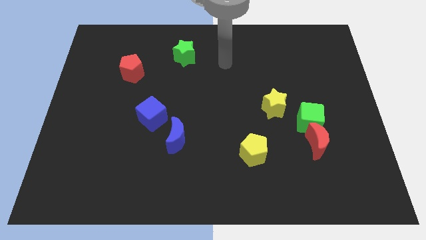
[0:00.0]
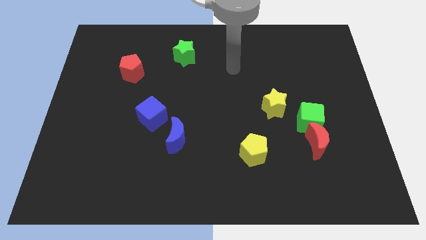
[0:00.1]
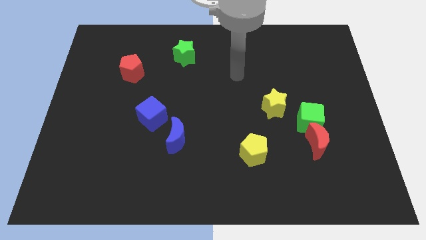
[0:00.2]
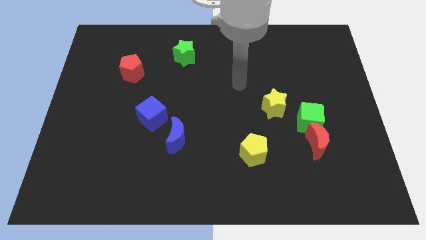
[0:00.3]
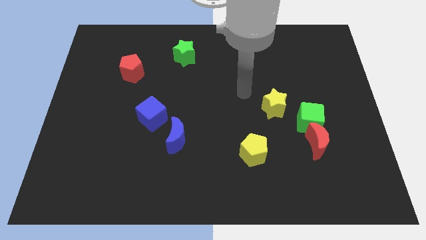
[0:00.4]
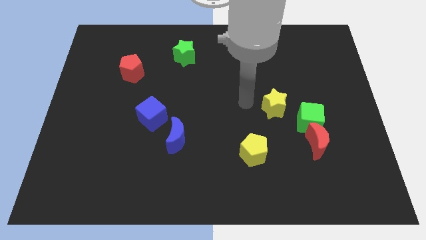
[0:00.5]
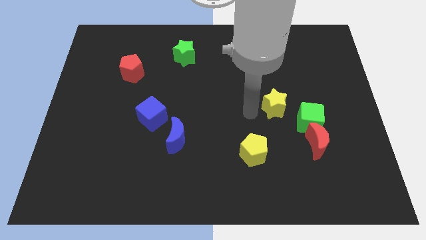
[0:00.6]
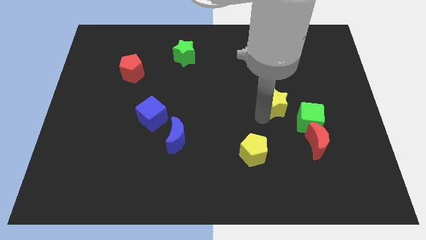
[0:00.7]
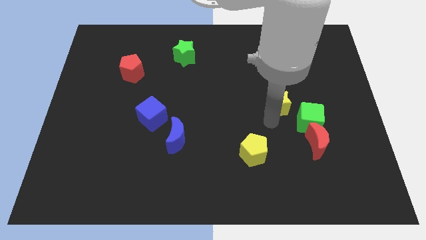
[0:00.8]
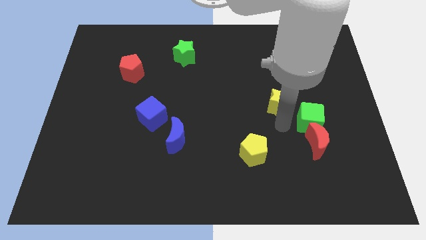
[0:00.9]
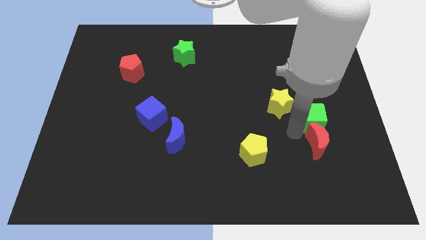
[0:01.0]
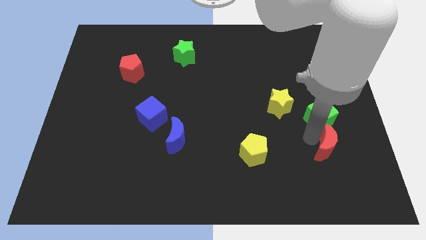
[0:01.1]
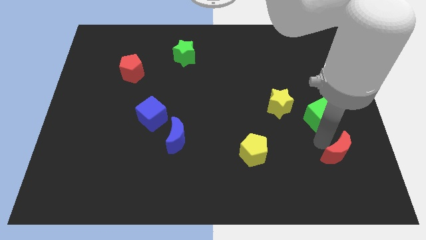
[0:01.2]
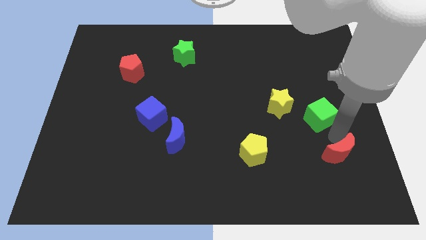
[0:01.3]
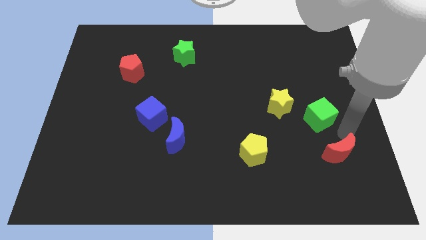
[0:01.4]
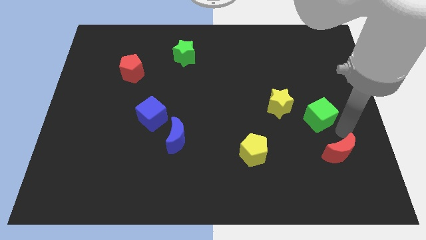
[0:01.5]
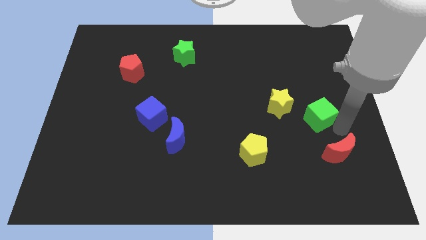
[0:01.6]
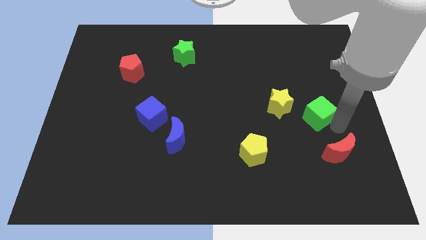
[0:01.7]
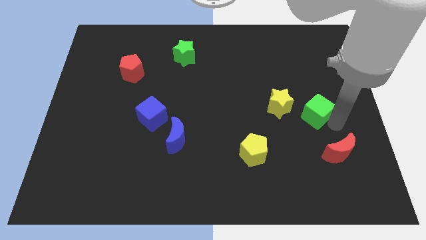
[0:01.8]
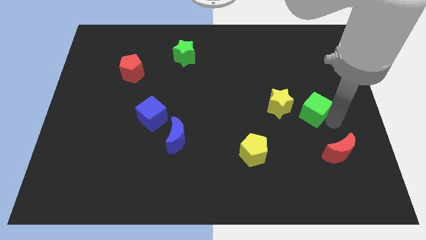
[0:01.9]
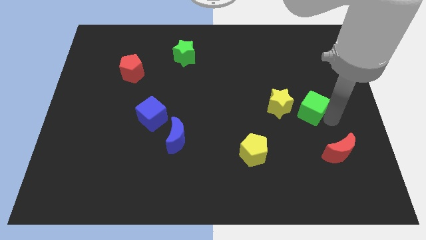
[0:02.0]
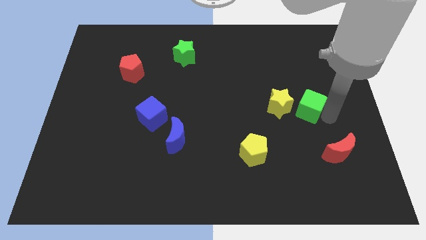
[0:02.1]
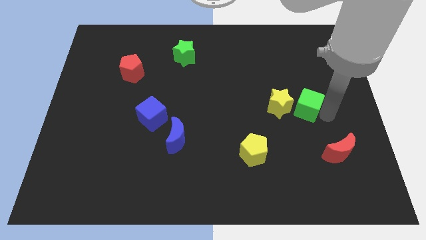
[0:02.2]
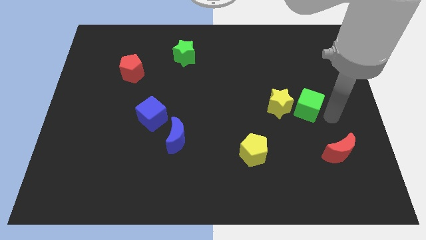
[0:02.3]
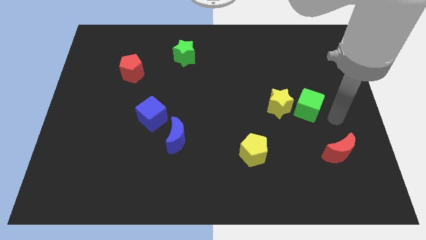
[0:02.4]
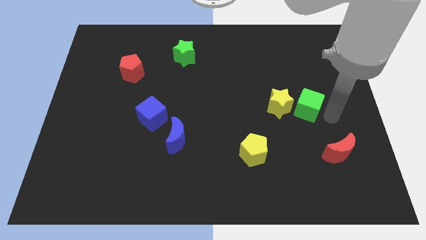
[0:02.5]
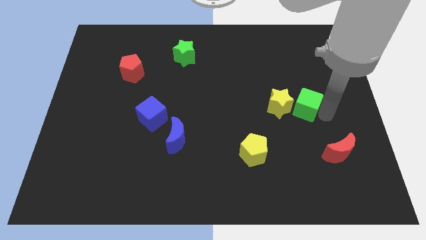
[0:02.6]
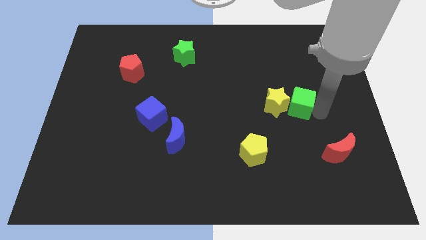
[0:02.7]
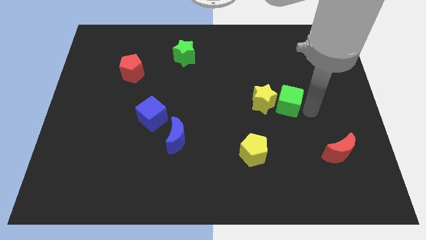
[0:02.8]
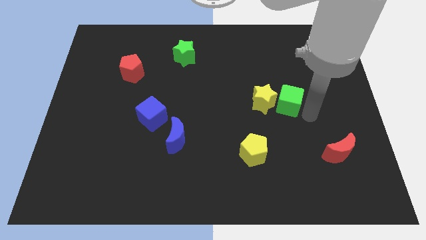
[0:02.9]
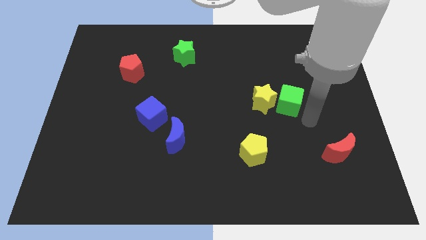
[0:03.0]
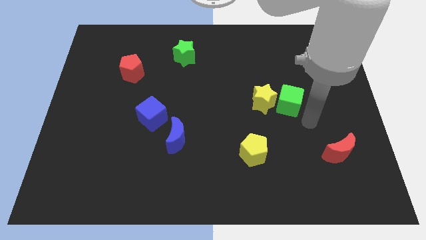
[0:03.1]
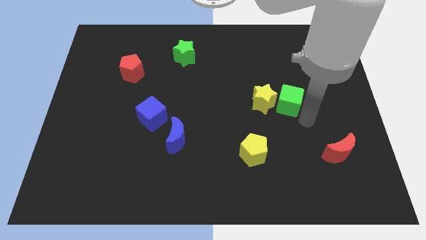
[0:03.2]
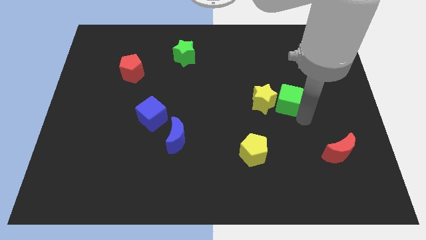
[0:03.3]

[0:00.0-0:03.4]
slightly slide the green cube upwards and to the left

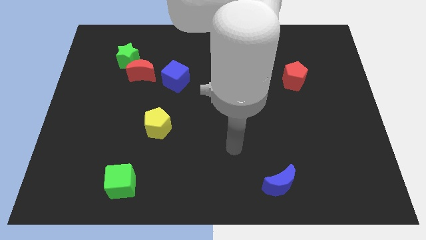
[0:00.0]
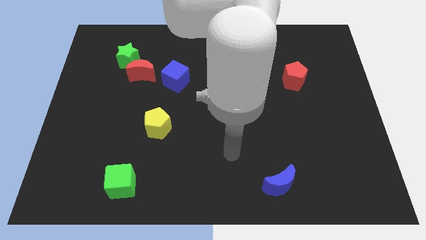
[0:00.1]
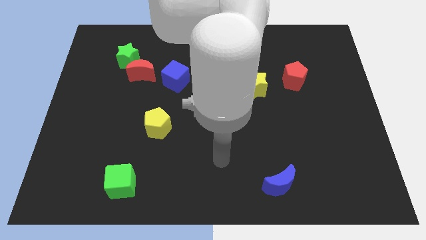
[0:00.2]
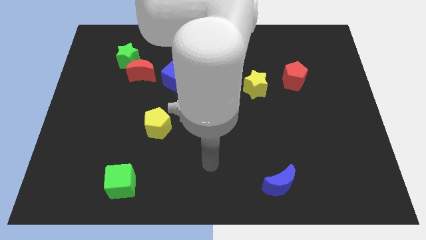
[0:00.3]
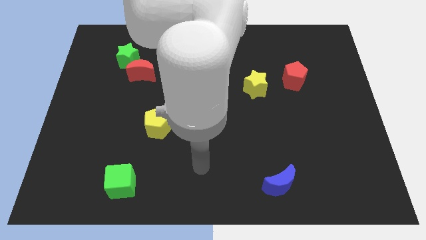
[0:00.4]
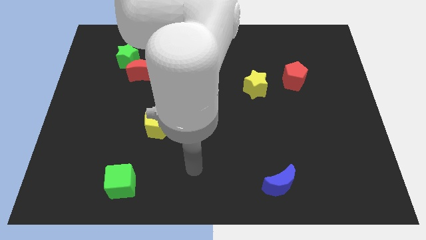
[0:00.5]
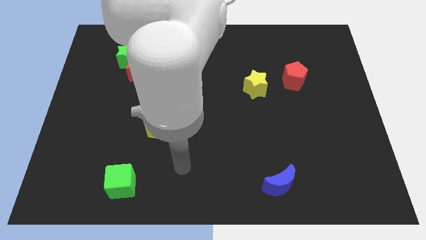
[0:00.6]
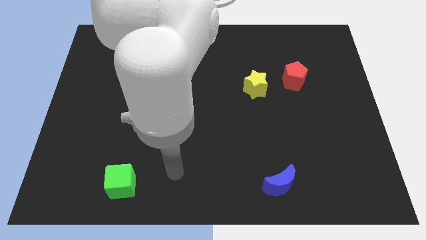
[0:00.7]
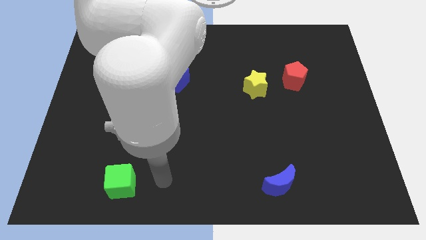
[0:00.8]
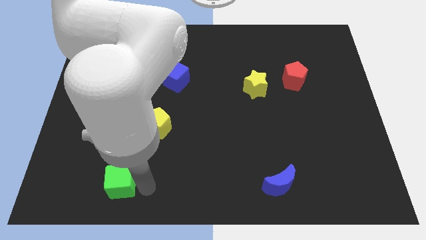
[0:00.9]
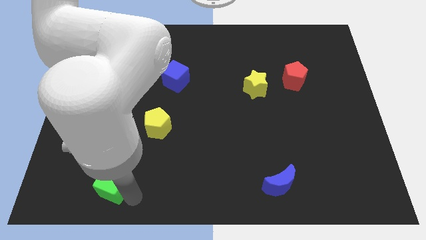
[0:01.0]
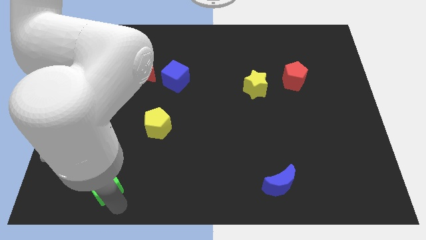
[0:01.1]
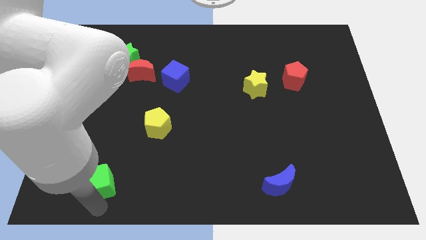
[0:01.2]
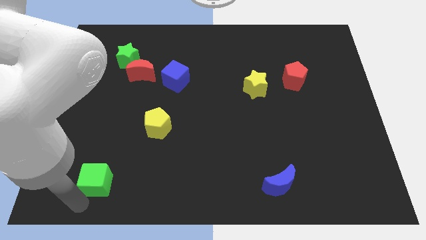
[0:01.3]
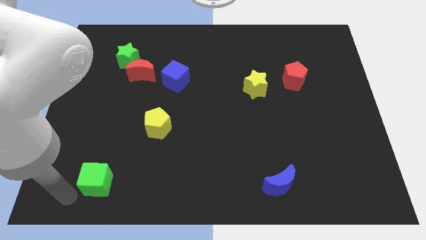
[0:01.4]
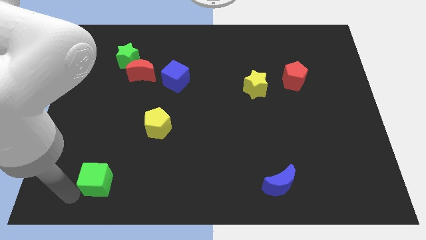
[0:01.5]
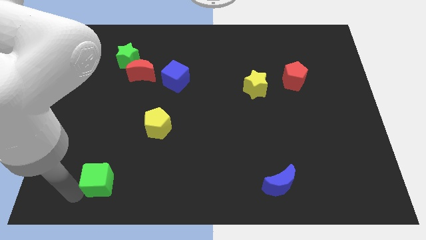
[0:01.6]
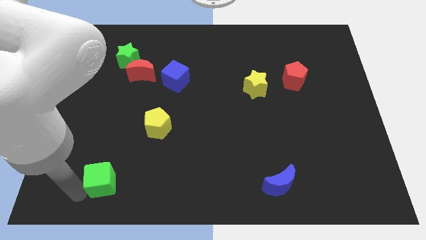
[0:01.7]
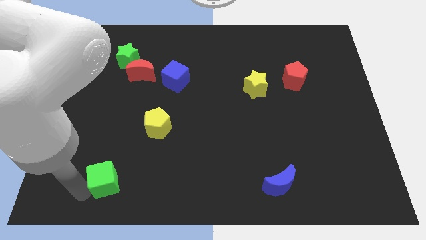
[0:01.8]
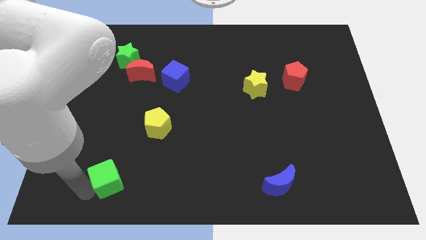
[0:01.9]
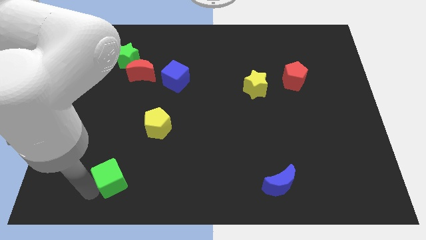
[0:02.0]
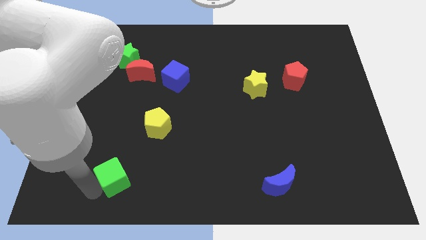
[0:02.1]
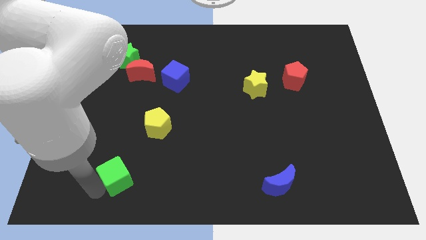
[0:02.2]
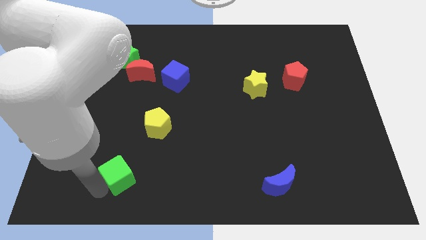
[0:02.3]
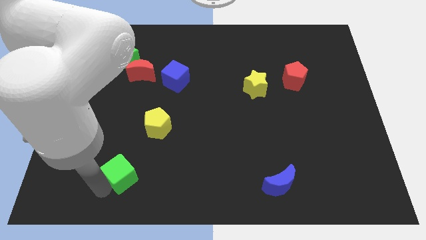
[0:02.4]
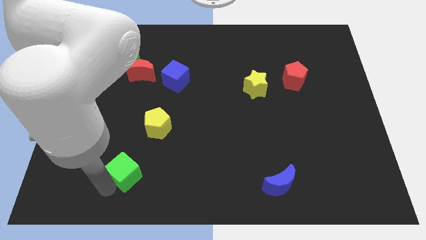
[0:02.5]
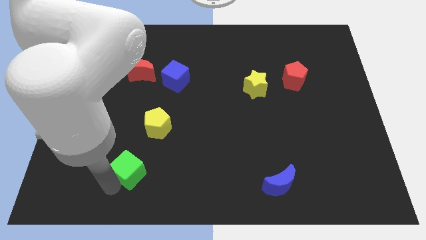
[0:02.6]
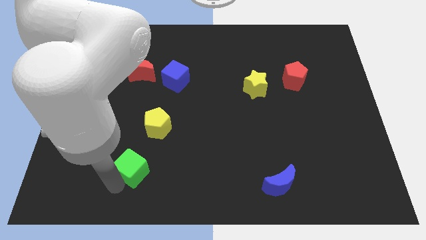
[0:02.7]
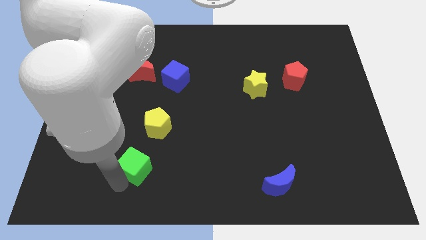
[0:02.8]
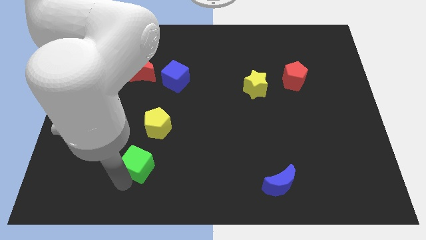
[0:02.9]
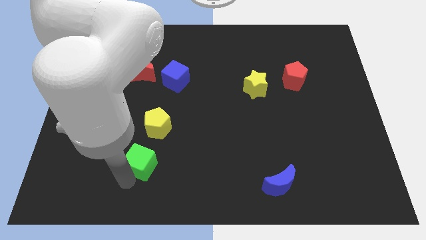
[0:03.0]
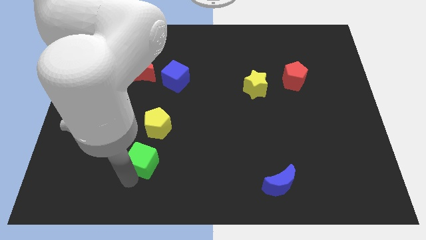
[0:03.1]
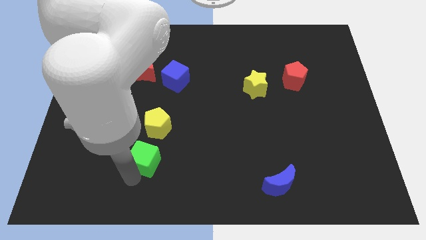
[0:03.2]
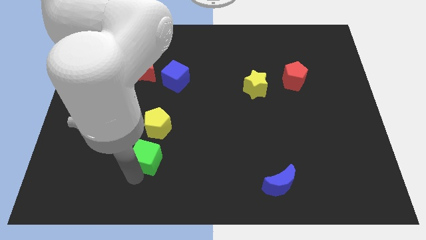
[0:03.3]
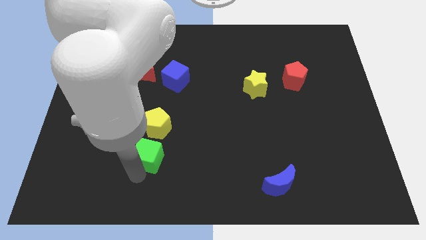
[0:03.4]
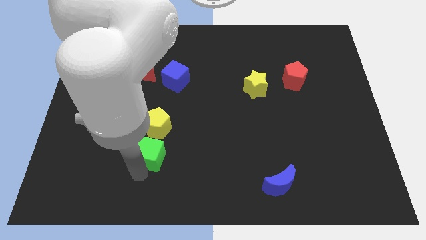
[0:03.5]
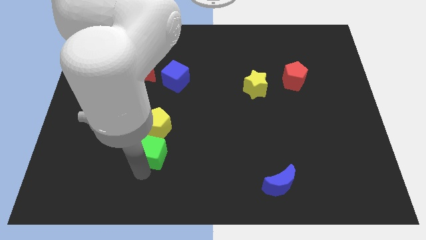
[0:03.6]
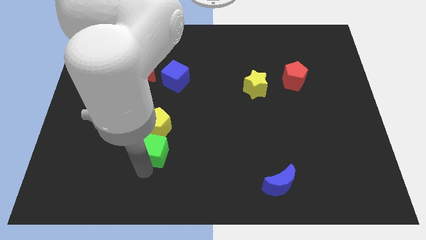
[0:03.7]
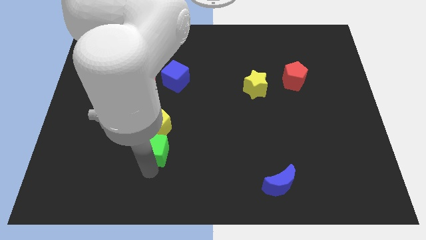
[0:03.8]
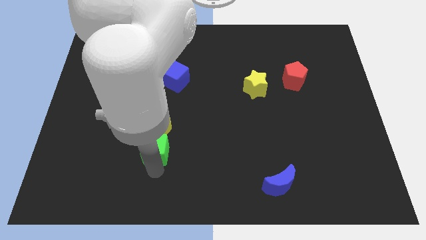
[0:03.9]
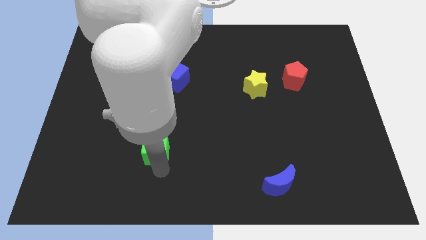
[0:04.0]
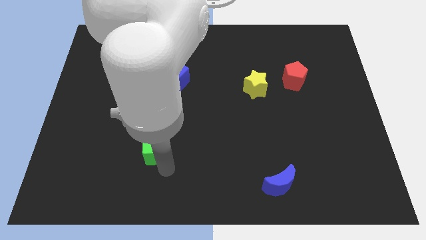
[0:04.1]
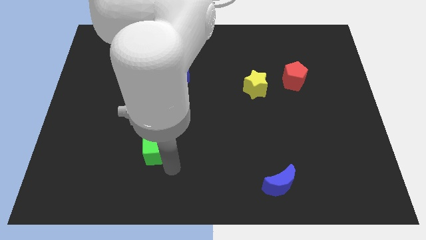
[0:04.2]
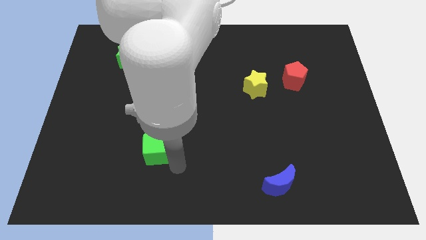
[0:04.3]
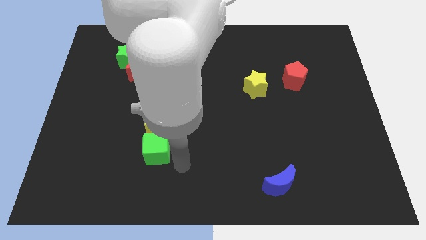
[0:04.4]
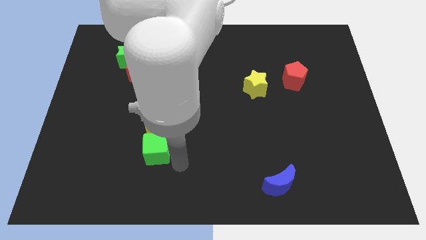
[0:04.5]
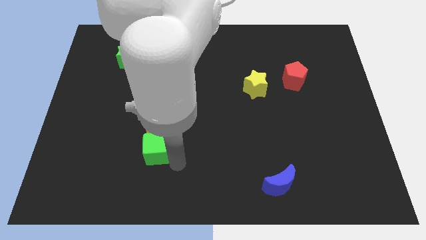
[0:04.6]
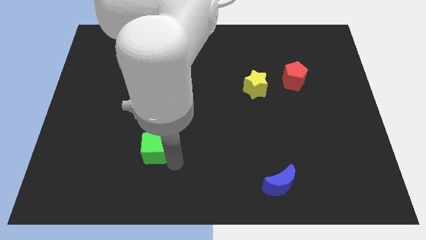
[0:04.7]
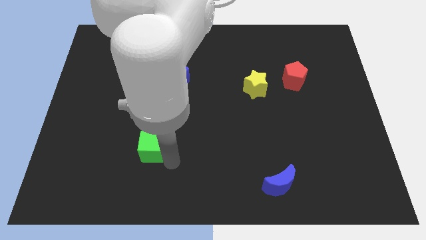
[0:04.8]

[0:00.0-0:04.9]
move the green cube upwards a little
